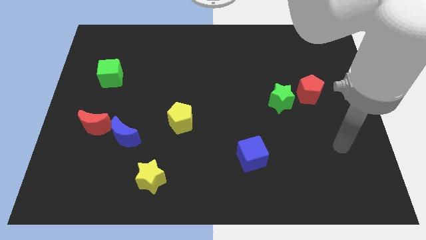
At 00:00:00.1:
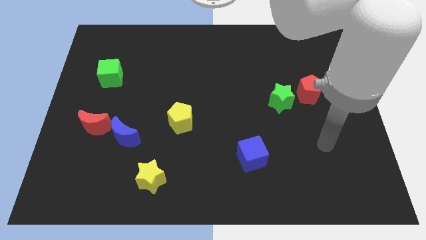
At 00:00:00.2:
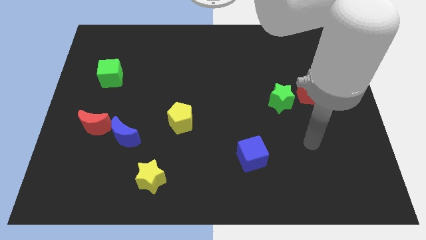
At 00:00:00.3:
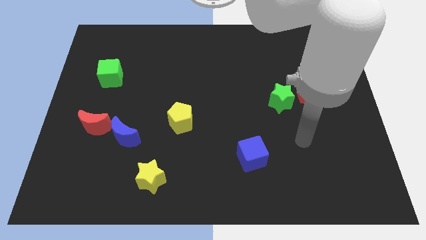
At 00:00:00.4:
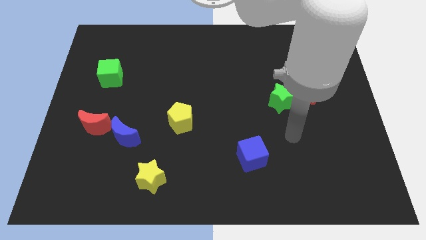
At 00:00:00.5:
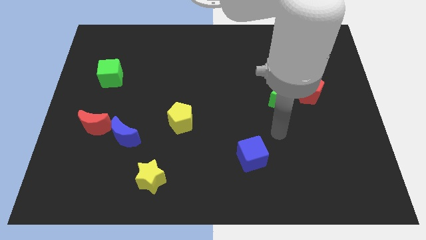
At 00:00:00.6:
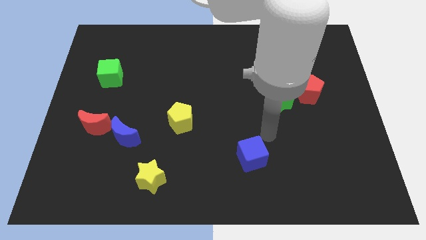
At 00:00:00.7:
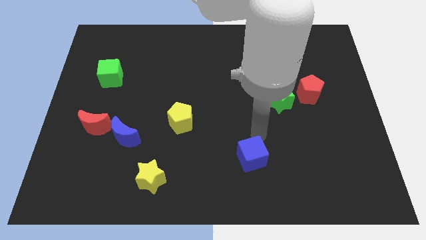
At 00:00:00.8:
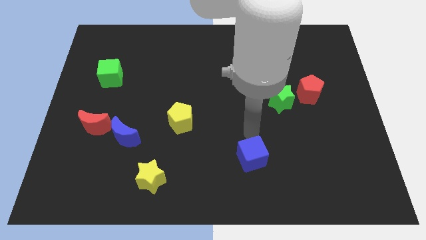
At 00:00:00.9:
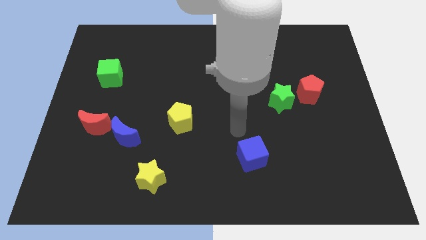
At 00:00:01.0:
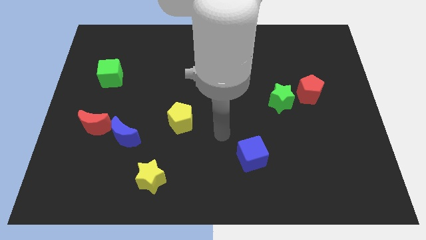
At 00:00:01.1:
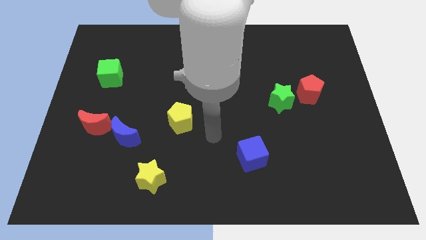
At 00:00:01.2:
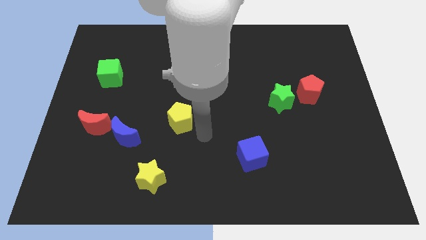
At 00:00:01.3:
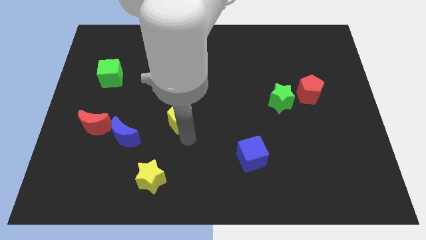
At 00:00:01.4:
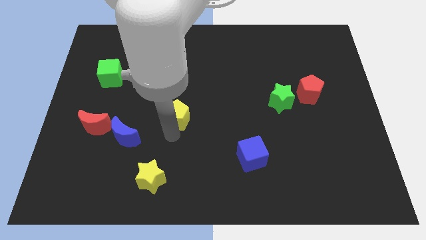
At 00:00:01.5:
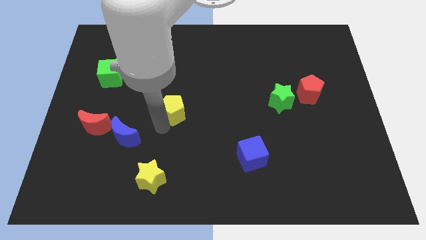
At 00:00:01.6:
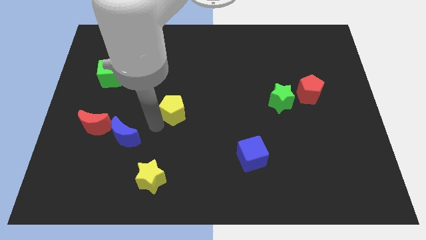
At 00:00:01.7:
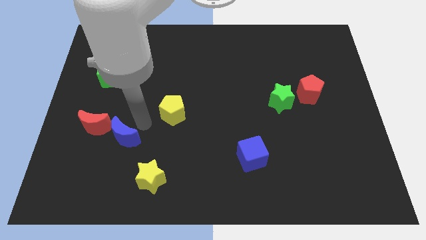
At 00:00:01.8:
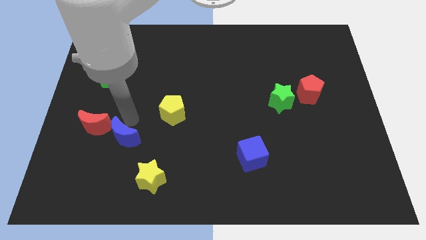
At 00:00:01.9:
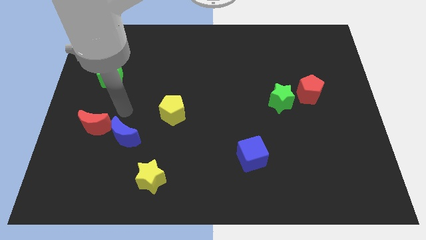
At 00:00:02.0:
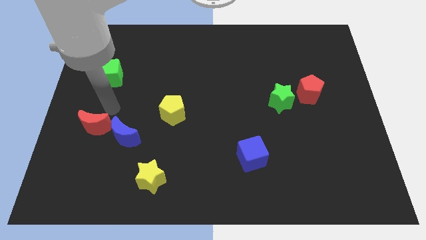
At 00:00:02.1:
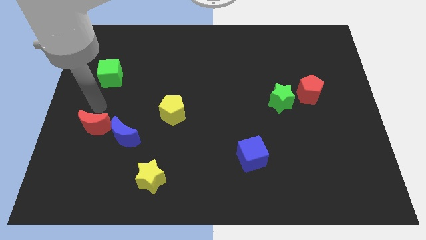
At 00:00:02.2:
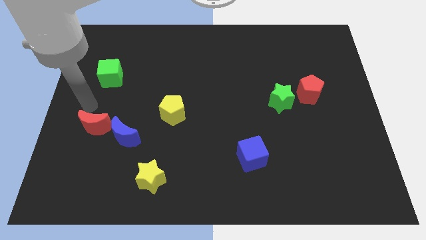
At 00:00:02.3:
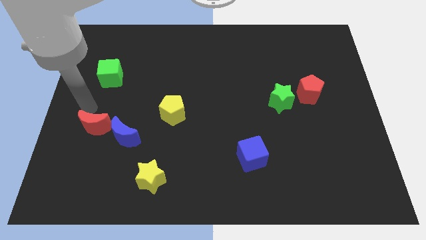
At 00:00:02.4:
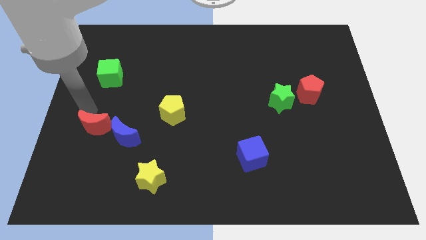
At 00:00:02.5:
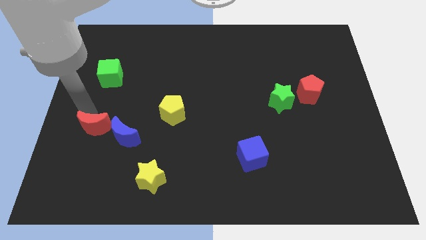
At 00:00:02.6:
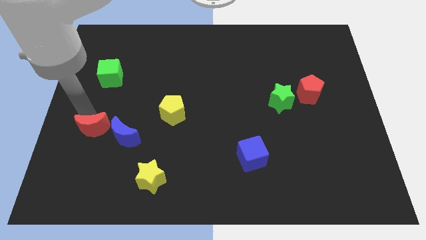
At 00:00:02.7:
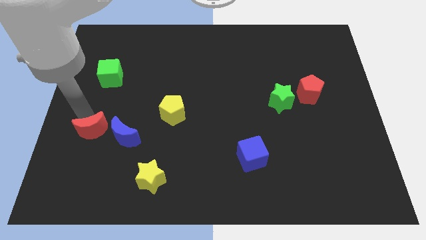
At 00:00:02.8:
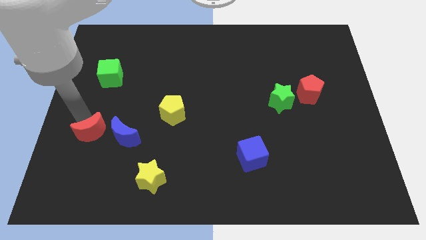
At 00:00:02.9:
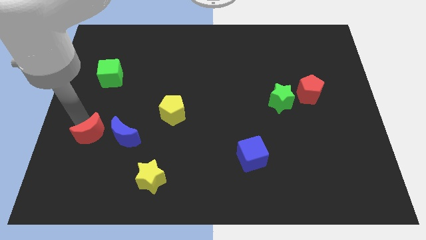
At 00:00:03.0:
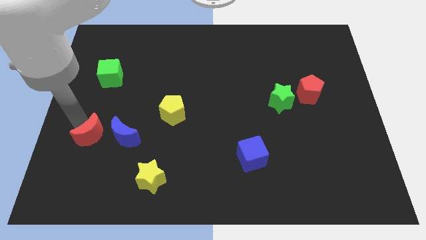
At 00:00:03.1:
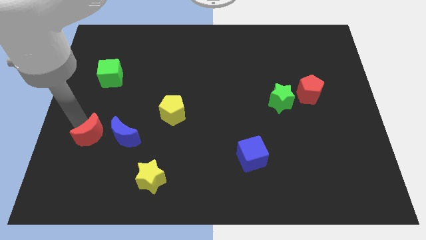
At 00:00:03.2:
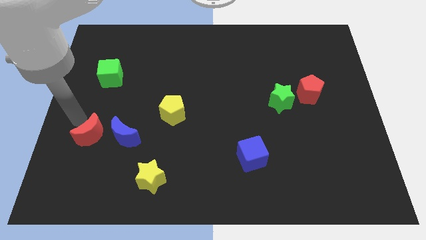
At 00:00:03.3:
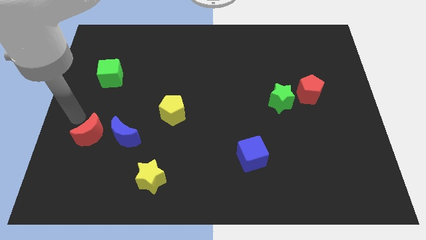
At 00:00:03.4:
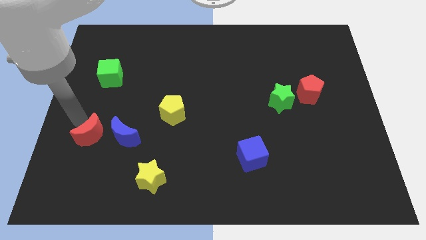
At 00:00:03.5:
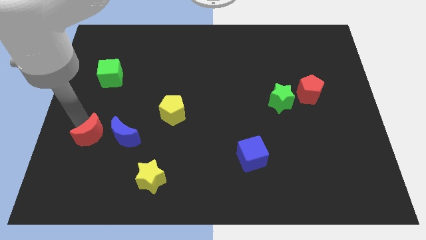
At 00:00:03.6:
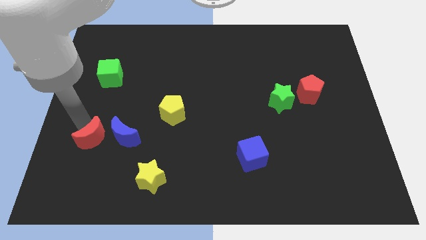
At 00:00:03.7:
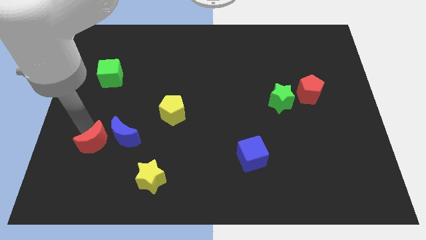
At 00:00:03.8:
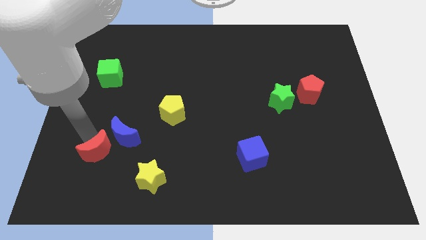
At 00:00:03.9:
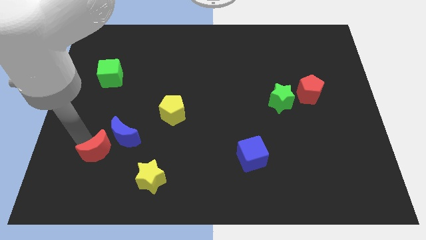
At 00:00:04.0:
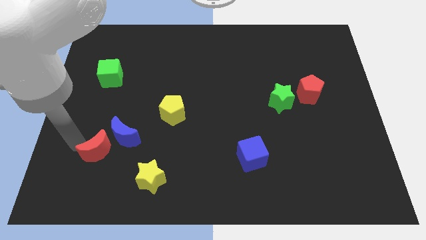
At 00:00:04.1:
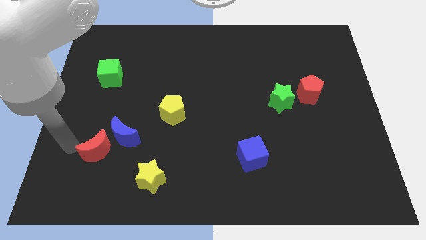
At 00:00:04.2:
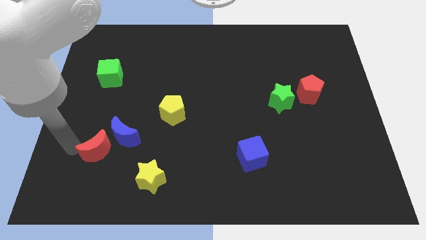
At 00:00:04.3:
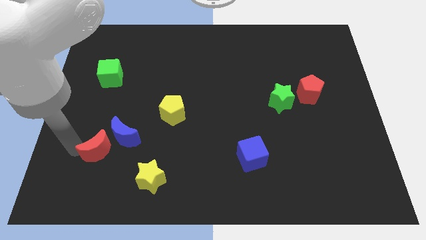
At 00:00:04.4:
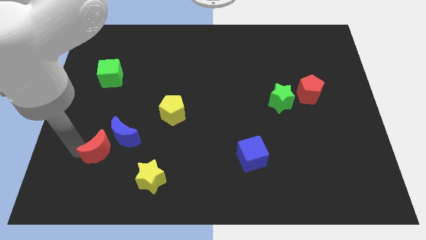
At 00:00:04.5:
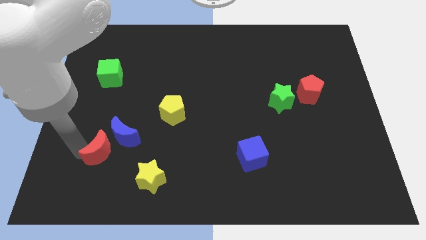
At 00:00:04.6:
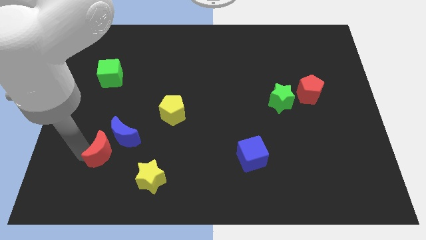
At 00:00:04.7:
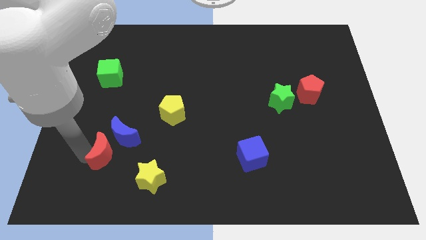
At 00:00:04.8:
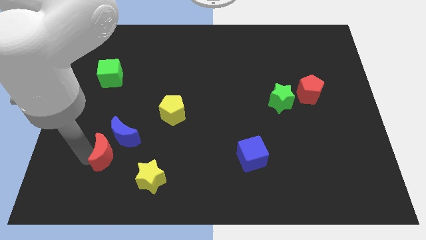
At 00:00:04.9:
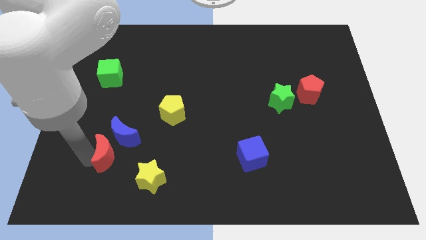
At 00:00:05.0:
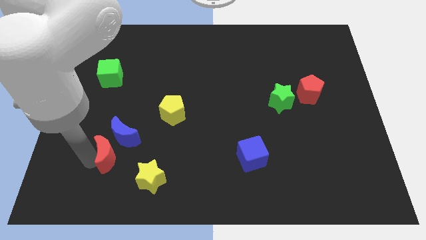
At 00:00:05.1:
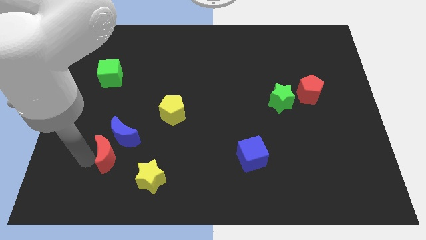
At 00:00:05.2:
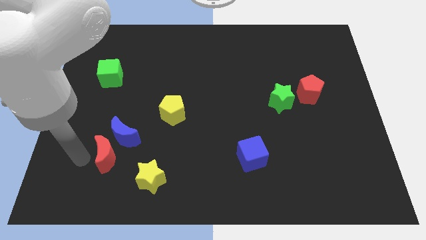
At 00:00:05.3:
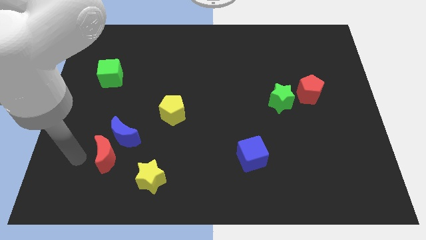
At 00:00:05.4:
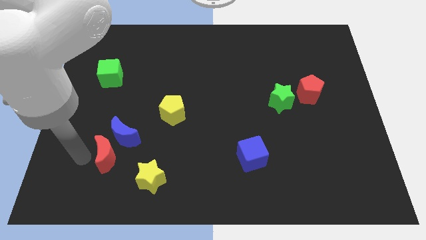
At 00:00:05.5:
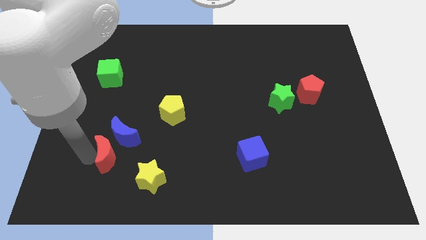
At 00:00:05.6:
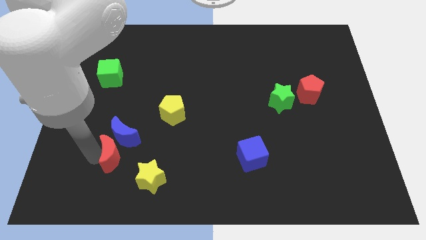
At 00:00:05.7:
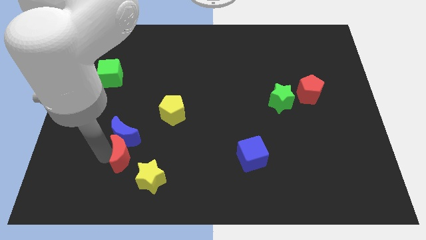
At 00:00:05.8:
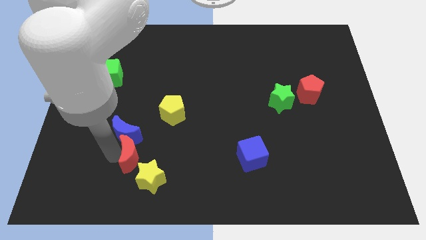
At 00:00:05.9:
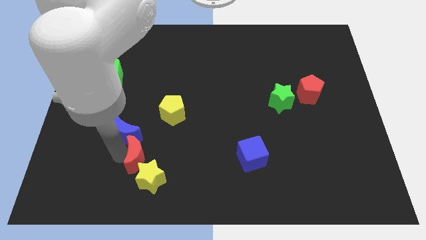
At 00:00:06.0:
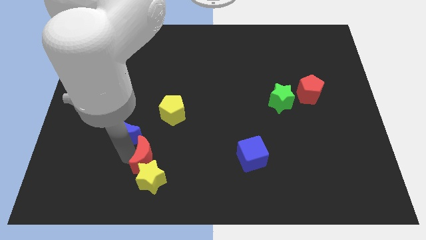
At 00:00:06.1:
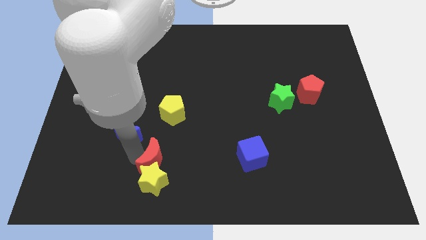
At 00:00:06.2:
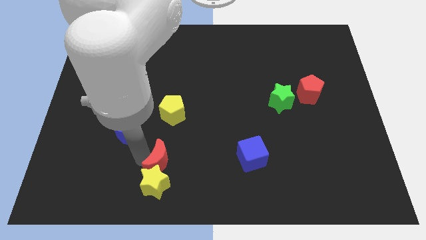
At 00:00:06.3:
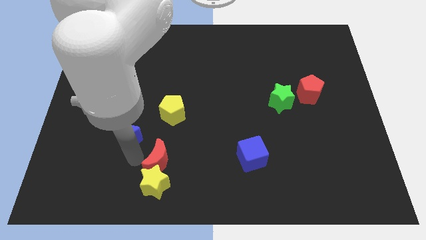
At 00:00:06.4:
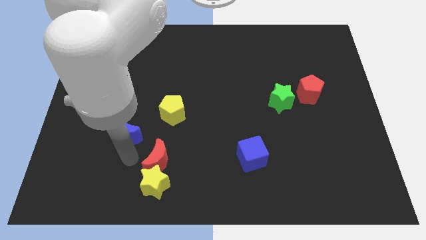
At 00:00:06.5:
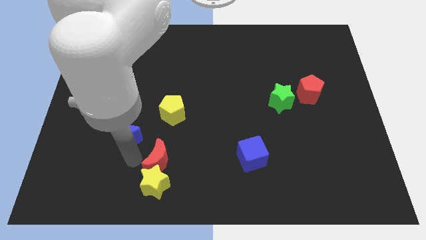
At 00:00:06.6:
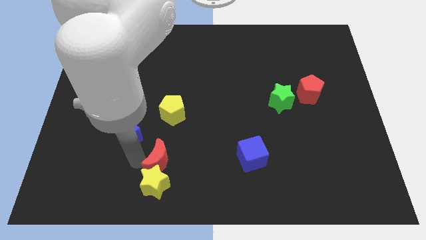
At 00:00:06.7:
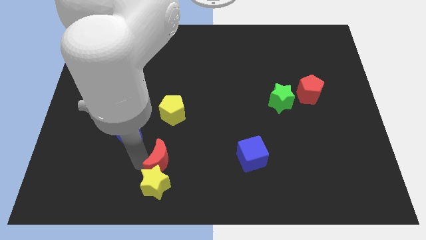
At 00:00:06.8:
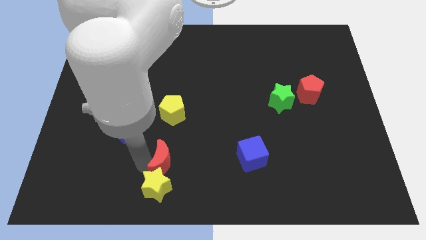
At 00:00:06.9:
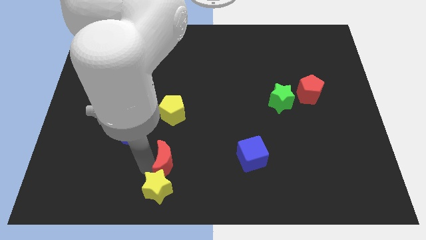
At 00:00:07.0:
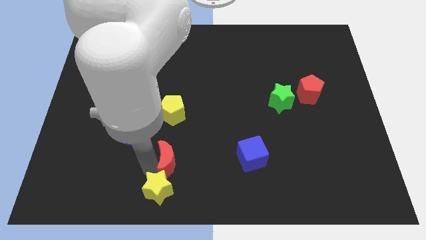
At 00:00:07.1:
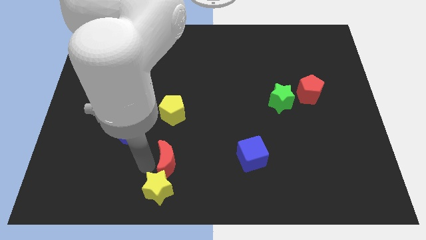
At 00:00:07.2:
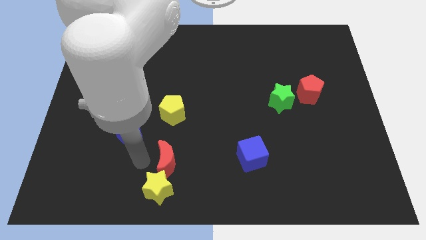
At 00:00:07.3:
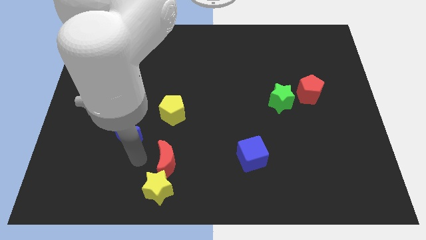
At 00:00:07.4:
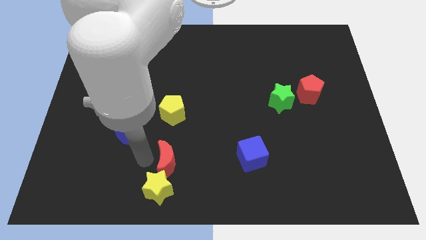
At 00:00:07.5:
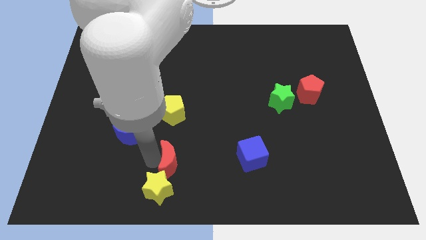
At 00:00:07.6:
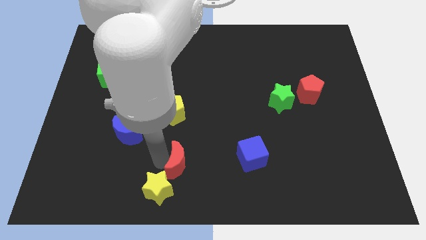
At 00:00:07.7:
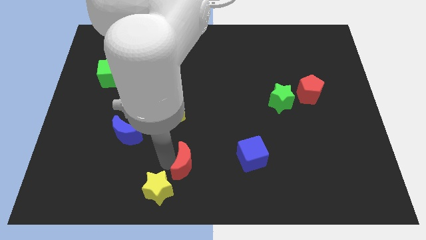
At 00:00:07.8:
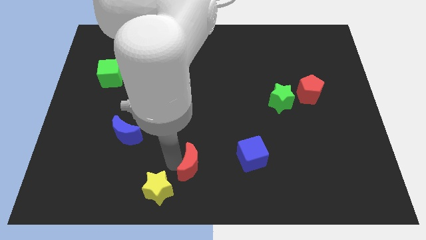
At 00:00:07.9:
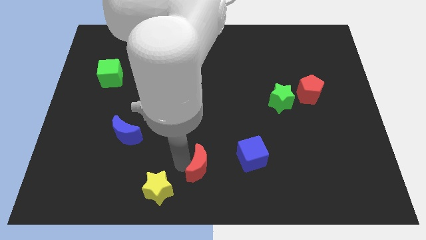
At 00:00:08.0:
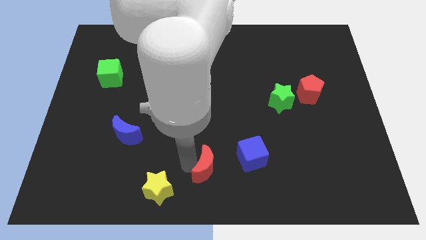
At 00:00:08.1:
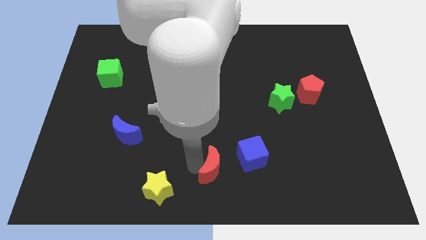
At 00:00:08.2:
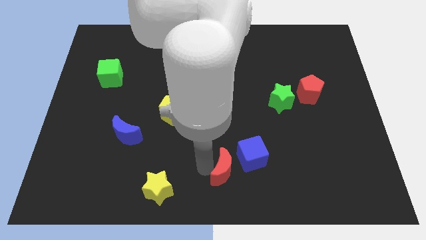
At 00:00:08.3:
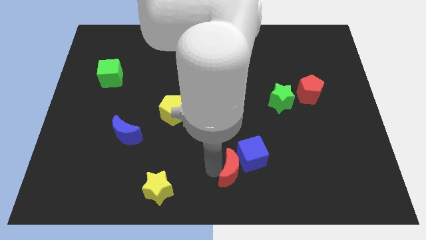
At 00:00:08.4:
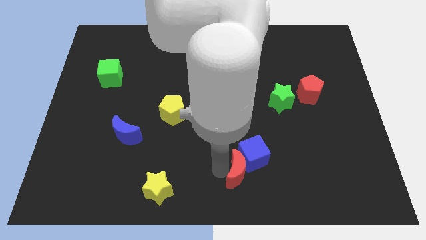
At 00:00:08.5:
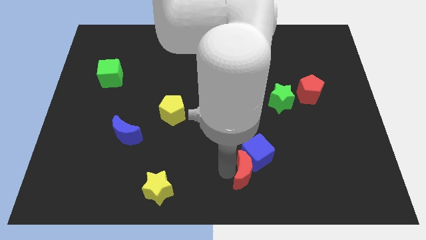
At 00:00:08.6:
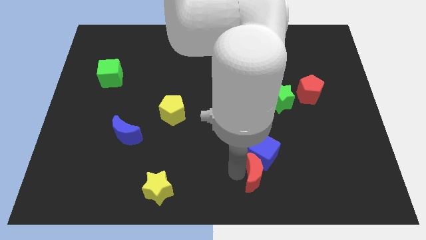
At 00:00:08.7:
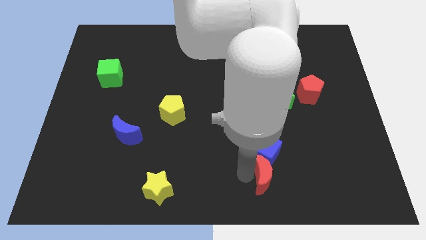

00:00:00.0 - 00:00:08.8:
move the red moon to the bottom right side of the blue cube

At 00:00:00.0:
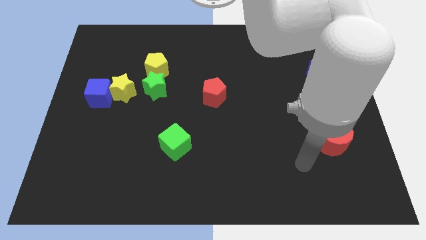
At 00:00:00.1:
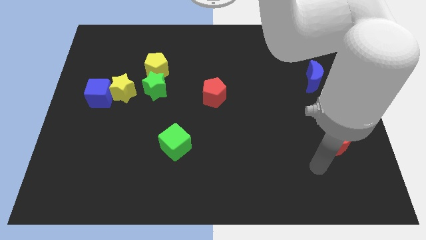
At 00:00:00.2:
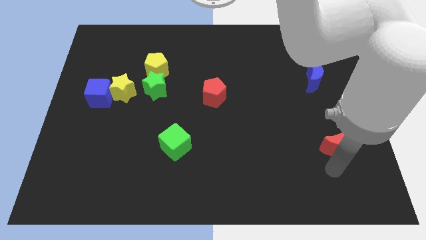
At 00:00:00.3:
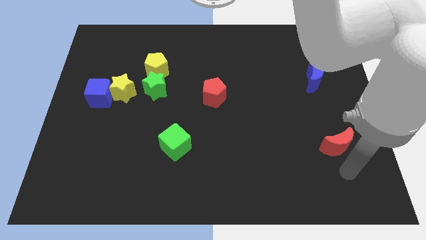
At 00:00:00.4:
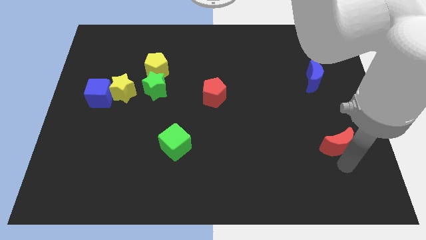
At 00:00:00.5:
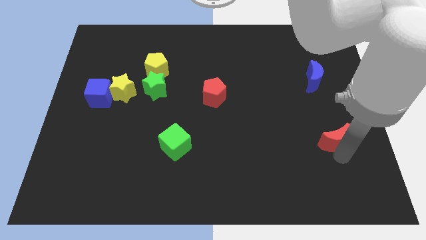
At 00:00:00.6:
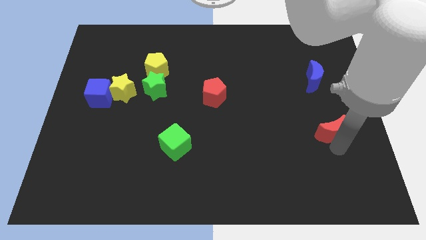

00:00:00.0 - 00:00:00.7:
put the red moon to the bottom of the blue moon
